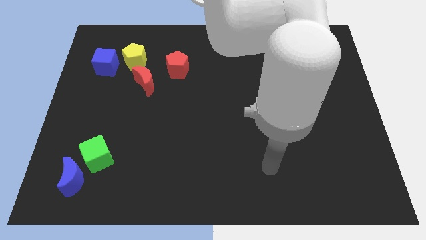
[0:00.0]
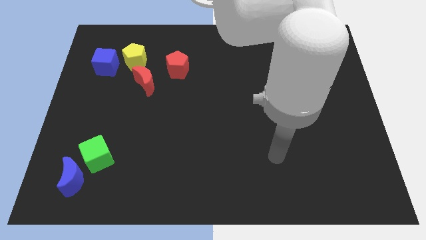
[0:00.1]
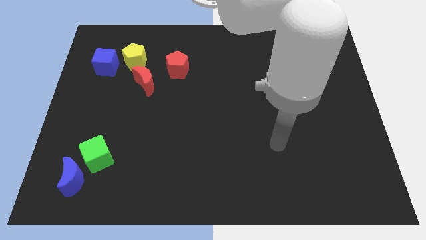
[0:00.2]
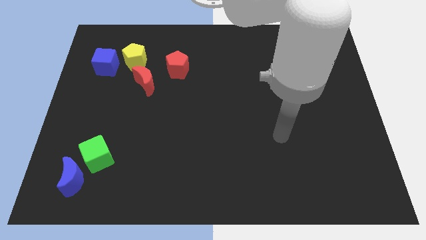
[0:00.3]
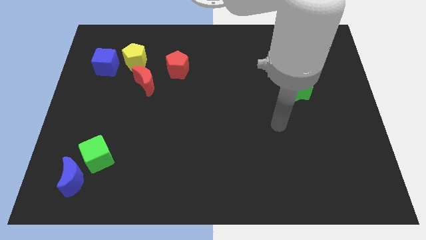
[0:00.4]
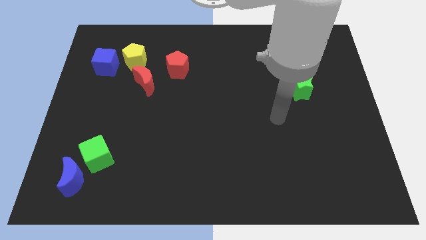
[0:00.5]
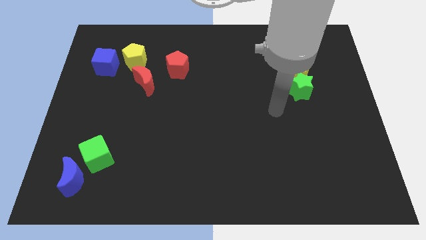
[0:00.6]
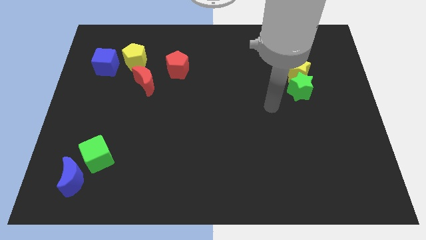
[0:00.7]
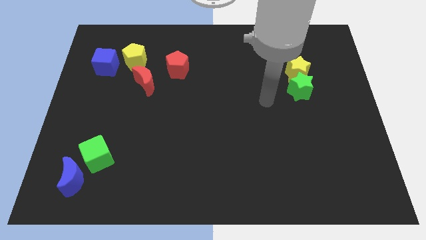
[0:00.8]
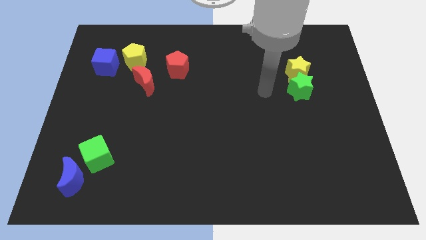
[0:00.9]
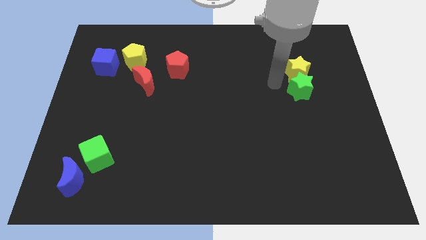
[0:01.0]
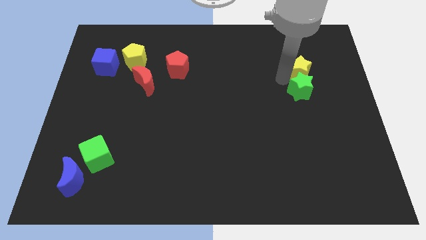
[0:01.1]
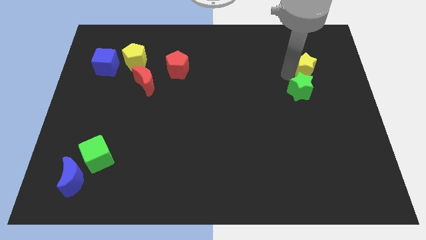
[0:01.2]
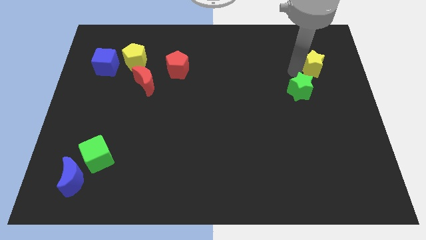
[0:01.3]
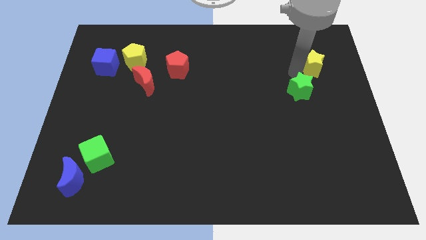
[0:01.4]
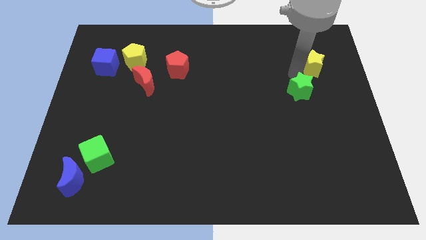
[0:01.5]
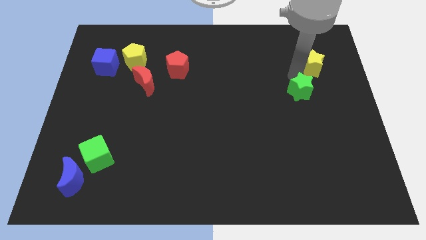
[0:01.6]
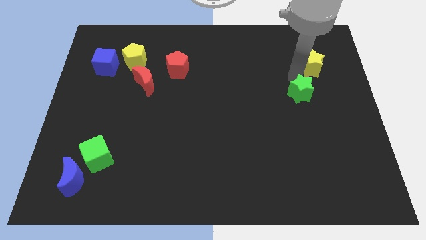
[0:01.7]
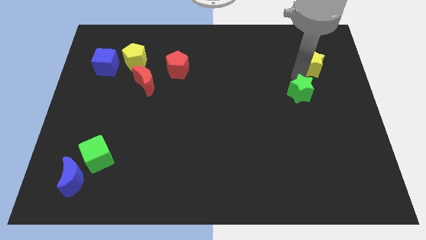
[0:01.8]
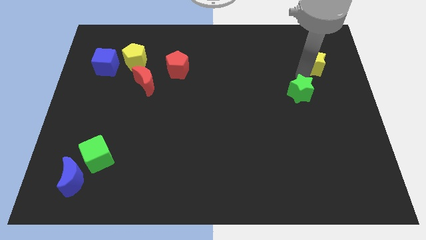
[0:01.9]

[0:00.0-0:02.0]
move the green star away from the yellow star

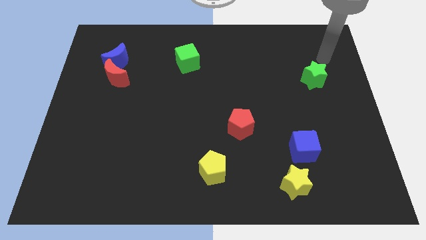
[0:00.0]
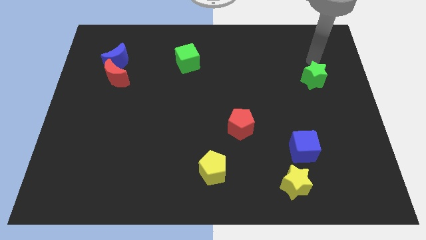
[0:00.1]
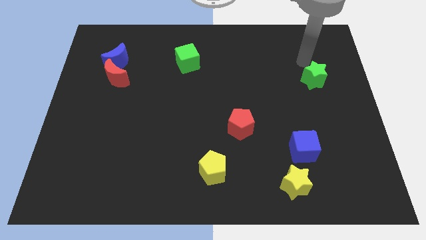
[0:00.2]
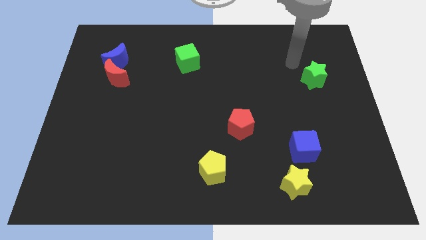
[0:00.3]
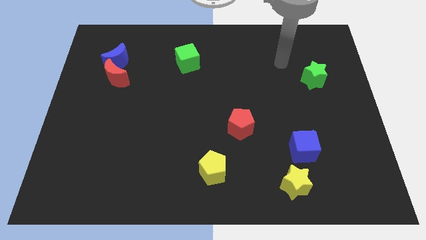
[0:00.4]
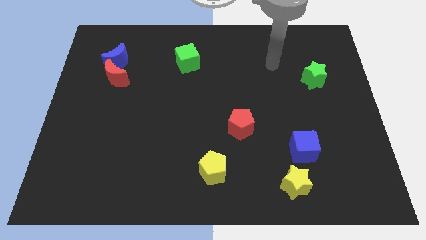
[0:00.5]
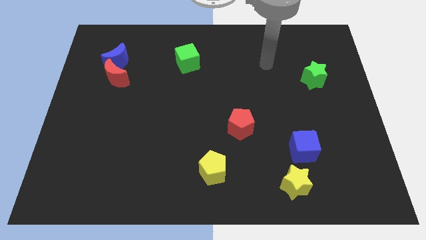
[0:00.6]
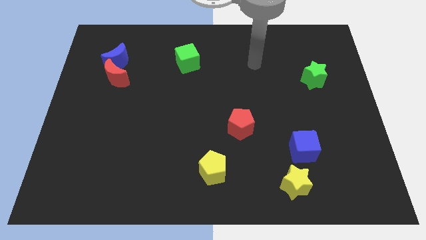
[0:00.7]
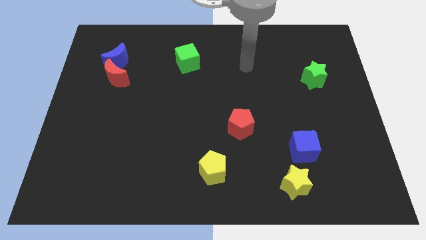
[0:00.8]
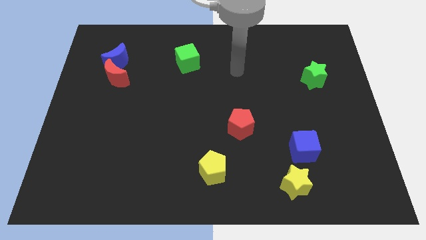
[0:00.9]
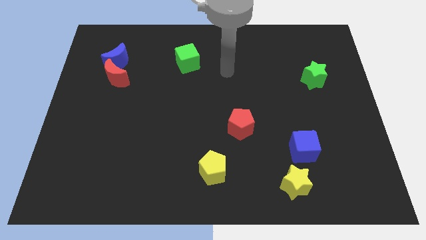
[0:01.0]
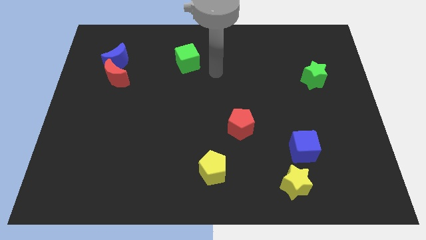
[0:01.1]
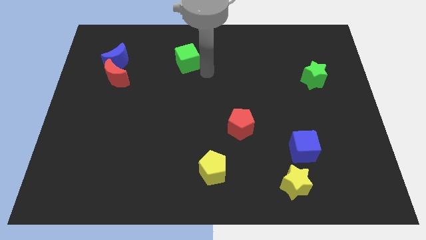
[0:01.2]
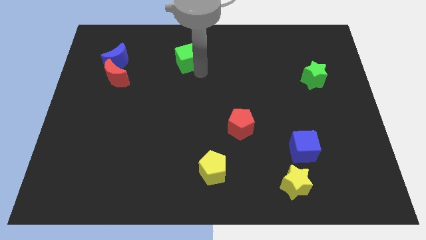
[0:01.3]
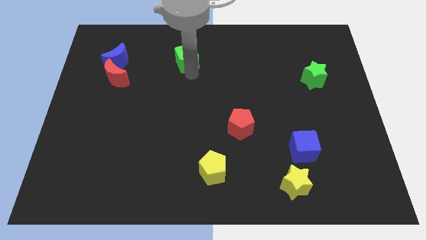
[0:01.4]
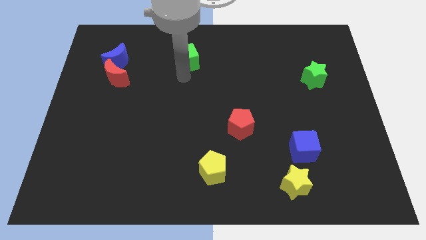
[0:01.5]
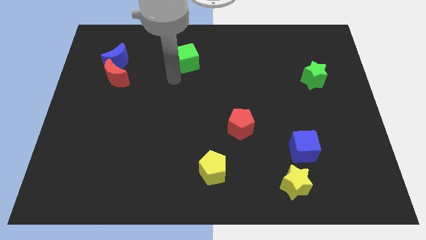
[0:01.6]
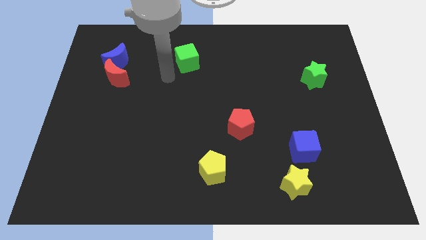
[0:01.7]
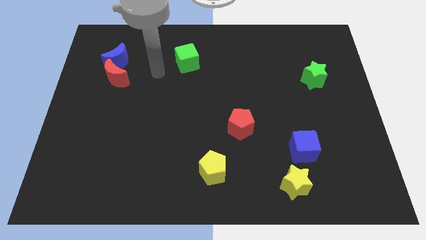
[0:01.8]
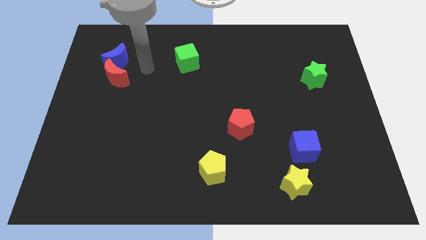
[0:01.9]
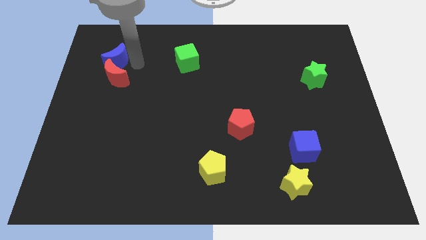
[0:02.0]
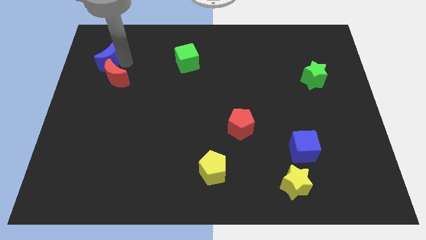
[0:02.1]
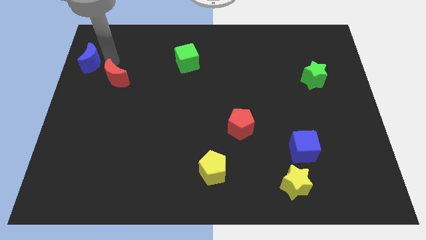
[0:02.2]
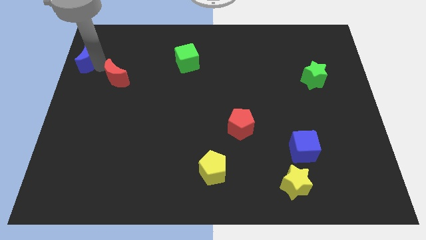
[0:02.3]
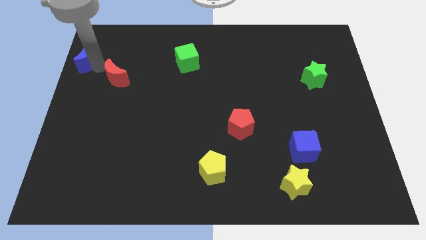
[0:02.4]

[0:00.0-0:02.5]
separate the red moon from the blue moon

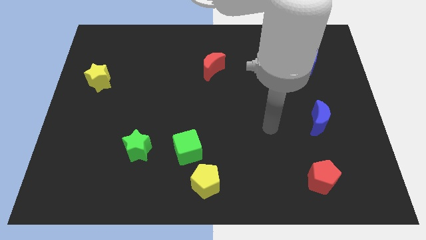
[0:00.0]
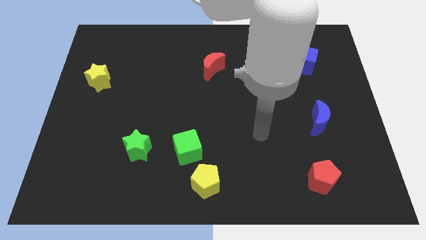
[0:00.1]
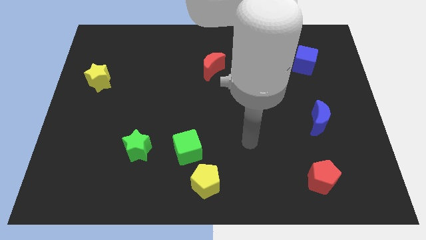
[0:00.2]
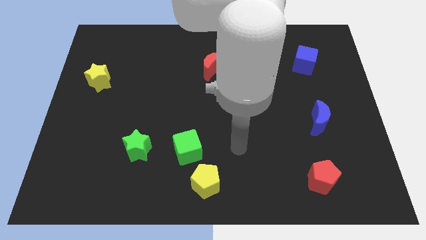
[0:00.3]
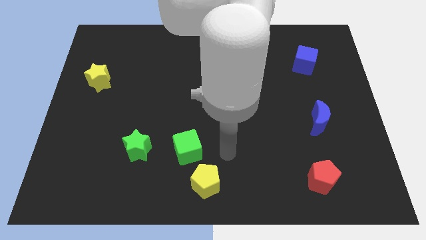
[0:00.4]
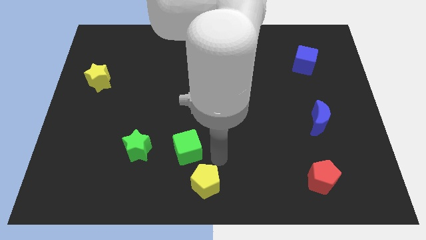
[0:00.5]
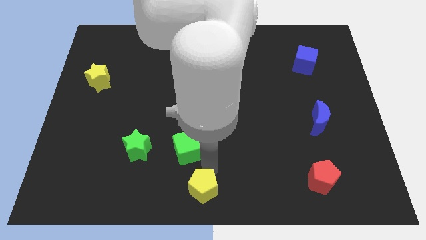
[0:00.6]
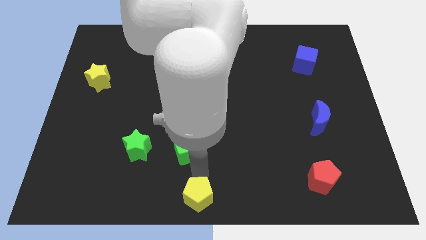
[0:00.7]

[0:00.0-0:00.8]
move the green cube away from the yellow pentagon

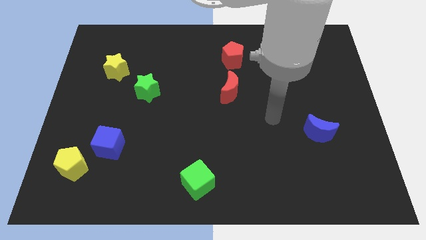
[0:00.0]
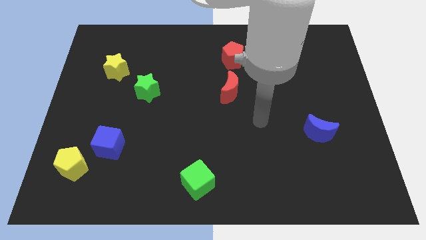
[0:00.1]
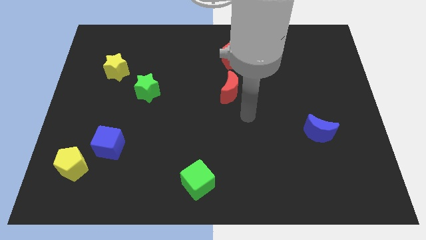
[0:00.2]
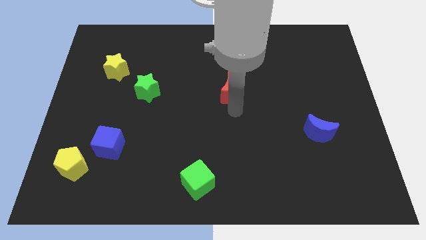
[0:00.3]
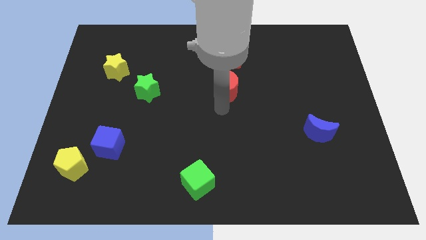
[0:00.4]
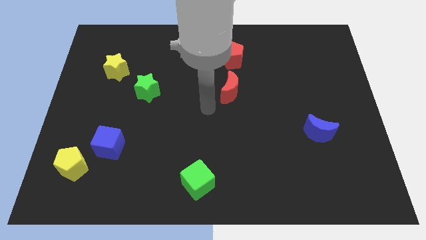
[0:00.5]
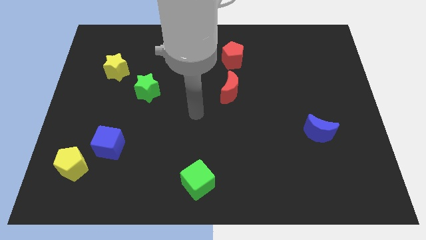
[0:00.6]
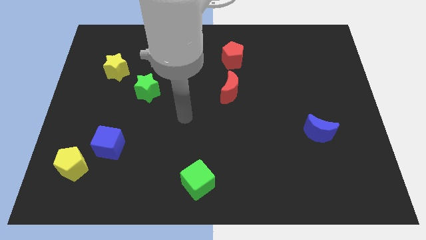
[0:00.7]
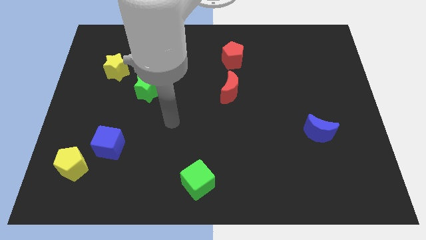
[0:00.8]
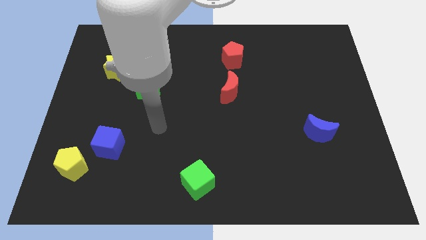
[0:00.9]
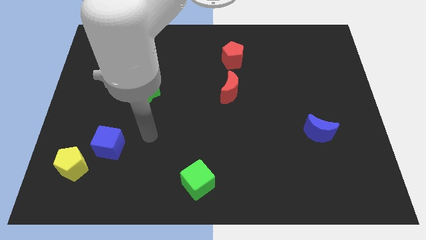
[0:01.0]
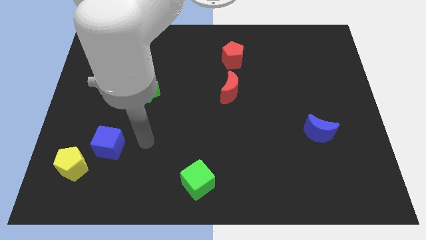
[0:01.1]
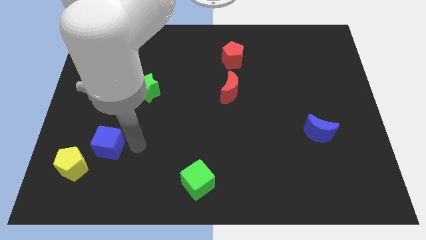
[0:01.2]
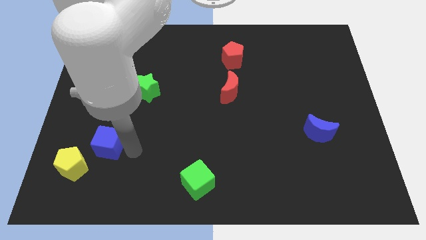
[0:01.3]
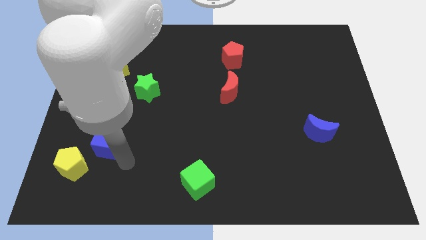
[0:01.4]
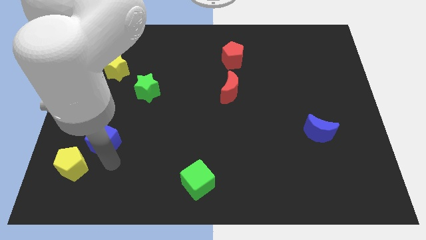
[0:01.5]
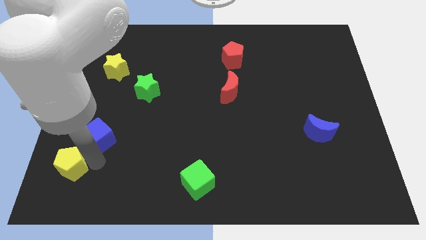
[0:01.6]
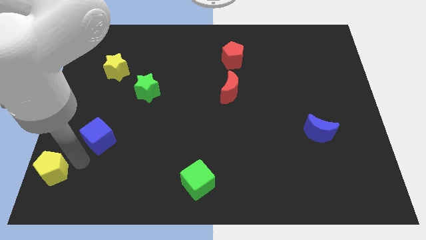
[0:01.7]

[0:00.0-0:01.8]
separate the blue cube from the yellow pentagon

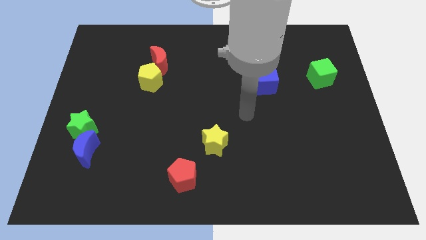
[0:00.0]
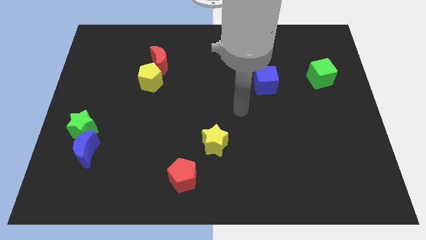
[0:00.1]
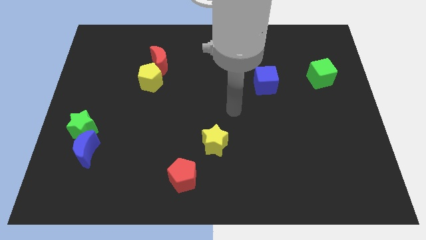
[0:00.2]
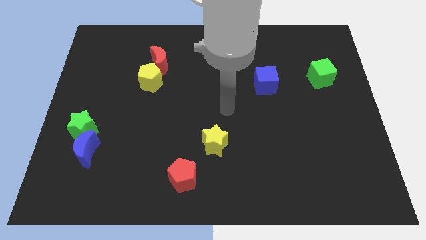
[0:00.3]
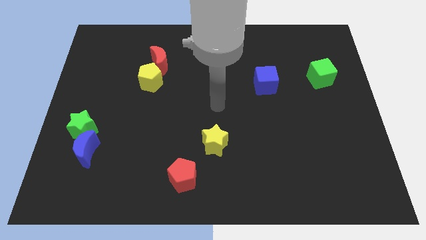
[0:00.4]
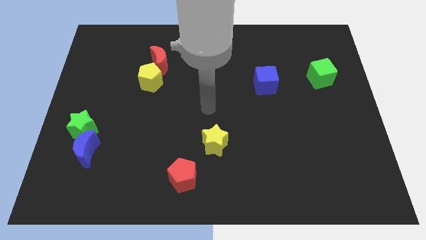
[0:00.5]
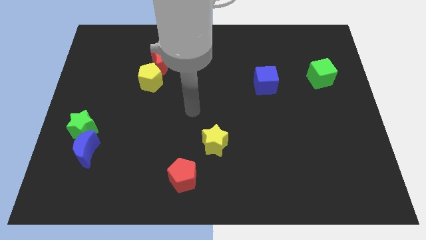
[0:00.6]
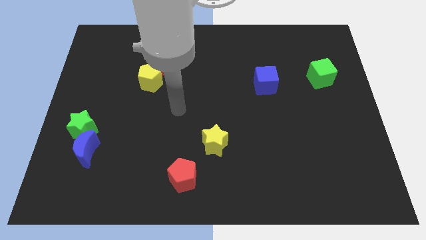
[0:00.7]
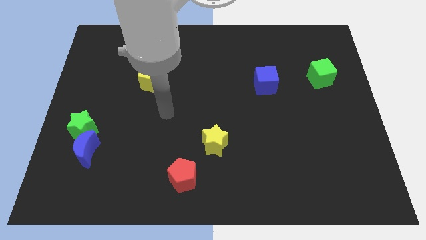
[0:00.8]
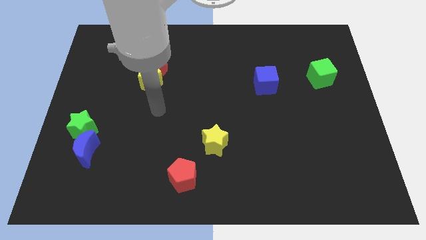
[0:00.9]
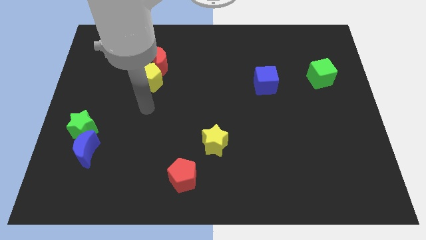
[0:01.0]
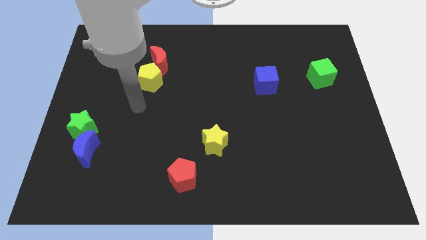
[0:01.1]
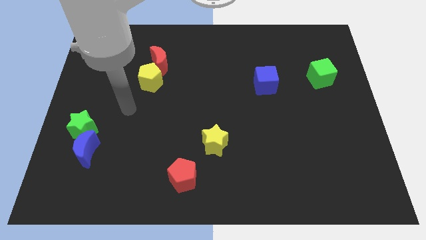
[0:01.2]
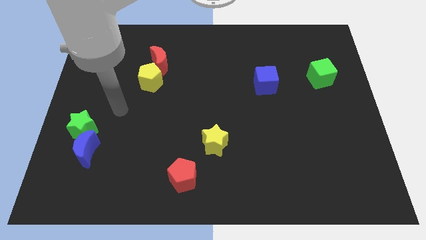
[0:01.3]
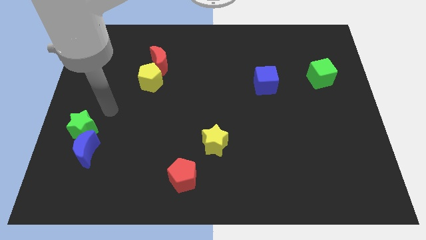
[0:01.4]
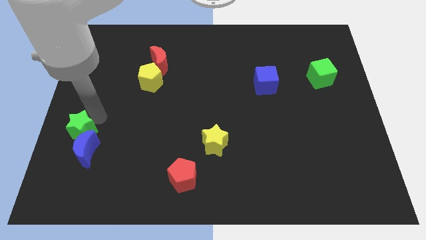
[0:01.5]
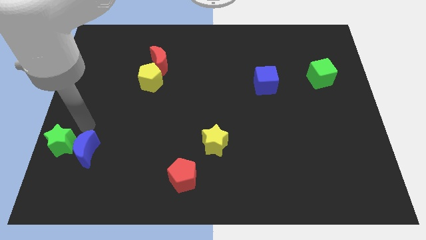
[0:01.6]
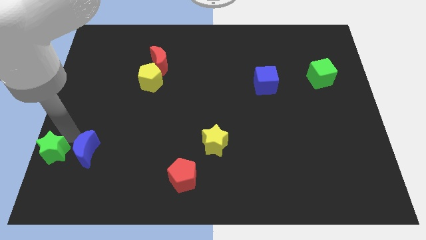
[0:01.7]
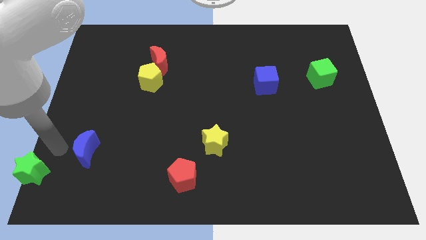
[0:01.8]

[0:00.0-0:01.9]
move the blue moon away from the green star
